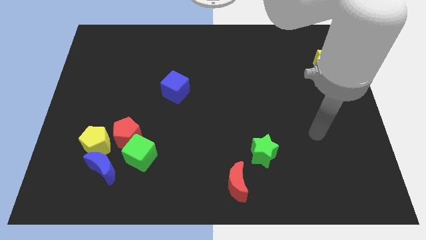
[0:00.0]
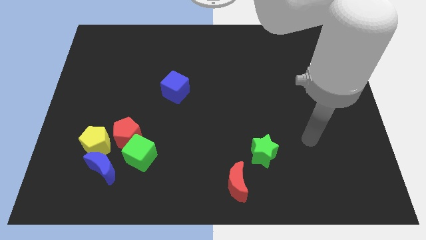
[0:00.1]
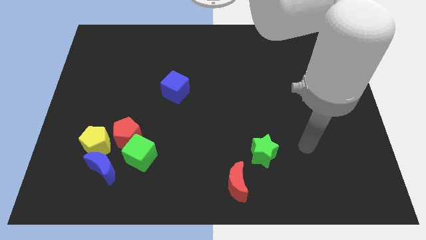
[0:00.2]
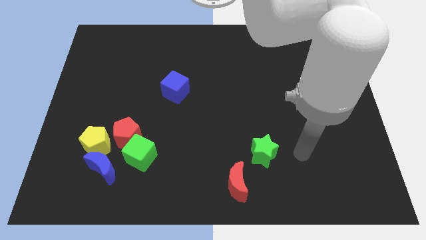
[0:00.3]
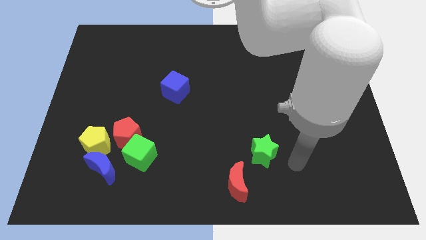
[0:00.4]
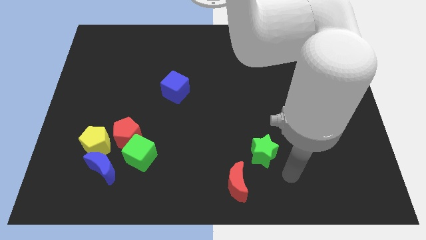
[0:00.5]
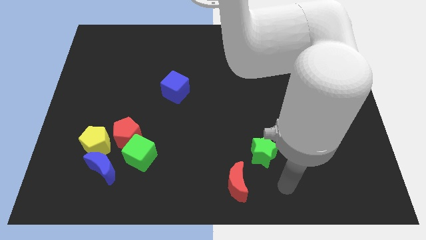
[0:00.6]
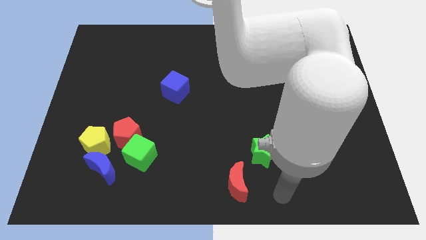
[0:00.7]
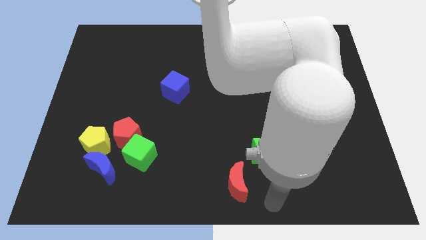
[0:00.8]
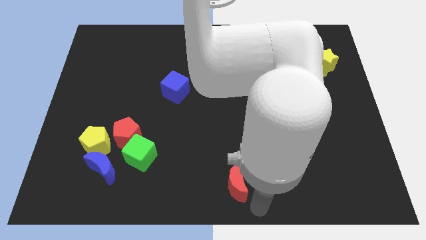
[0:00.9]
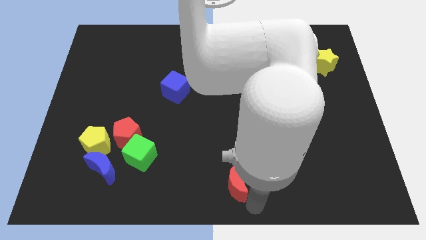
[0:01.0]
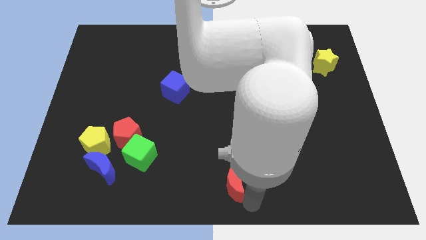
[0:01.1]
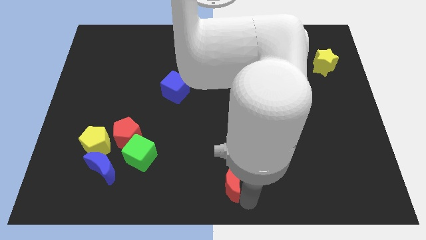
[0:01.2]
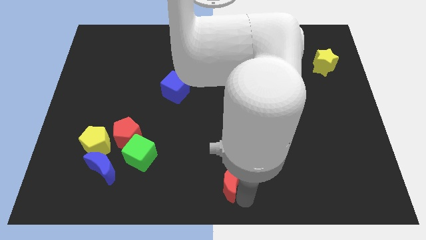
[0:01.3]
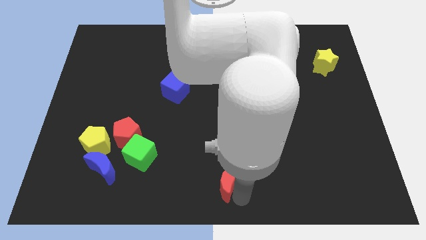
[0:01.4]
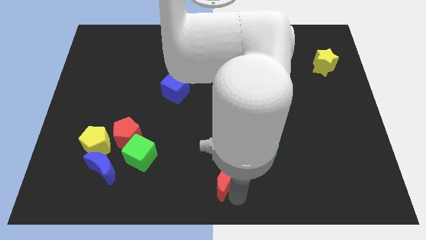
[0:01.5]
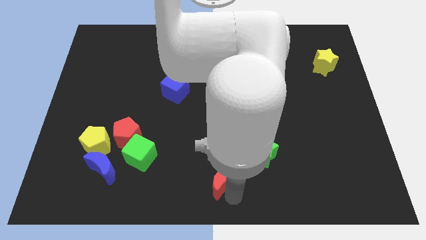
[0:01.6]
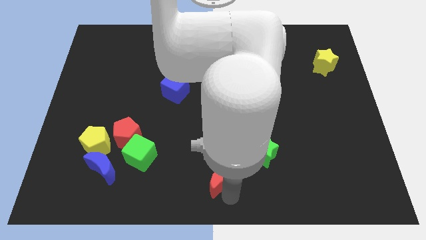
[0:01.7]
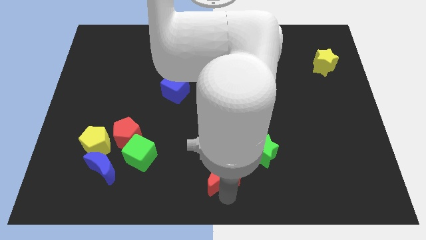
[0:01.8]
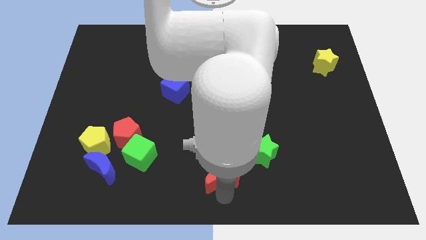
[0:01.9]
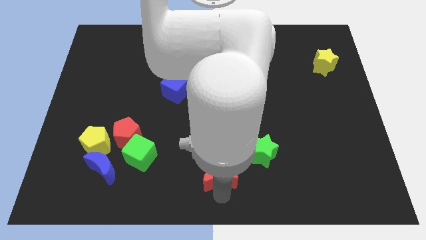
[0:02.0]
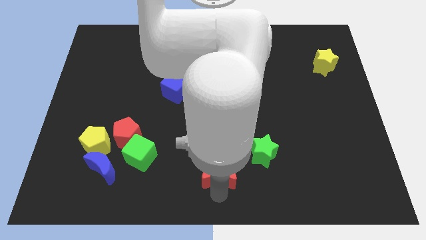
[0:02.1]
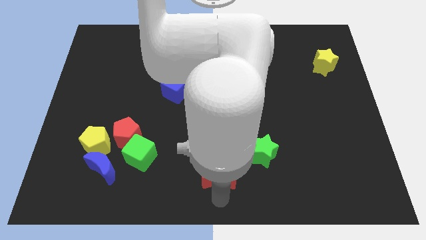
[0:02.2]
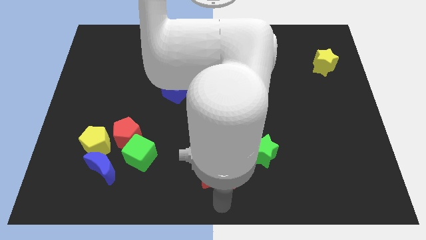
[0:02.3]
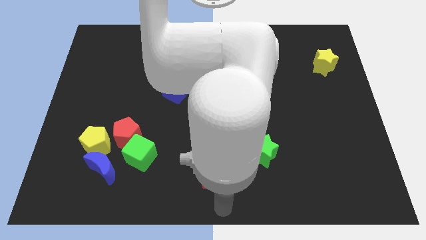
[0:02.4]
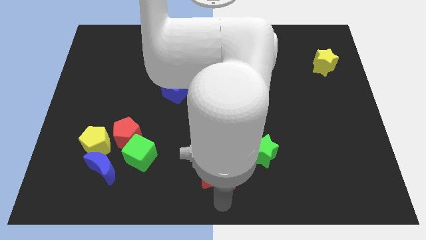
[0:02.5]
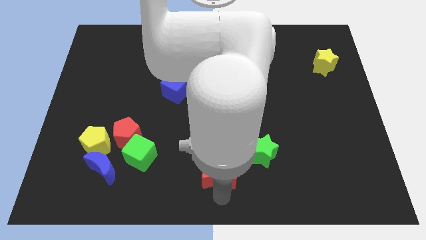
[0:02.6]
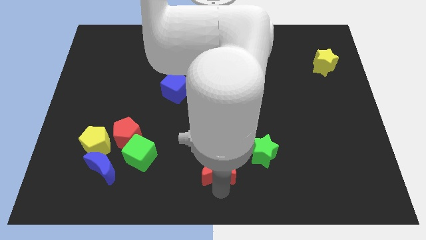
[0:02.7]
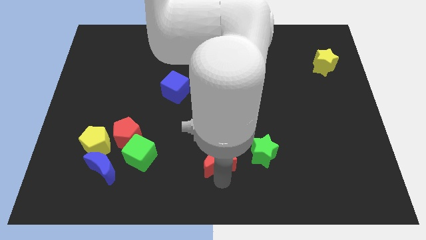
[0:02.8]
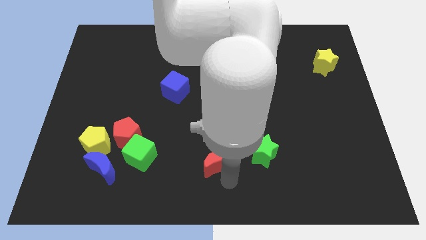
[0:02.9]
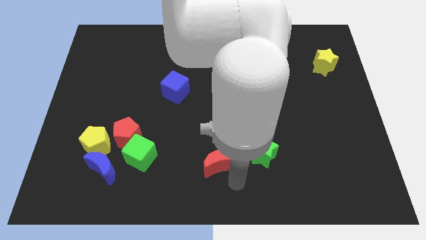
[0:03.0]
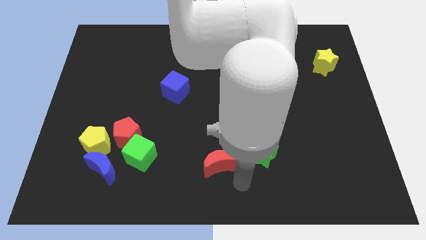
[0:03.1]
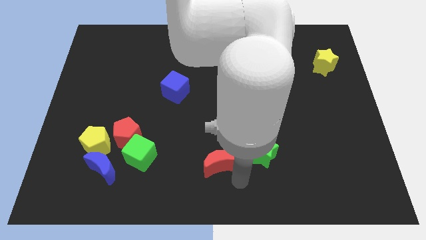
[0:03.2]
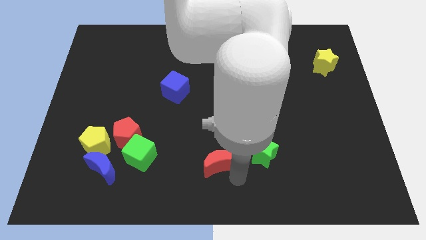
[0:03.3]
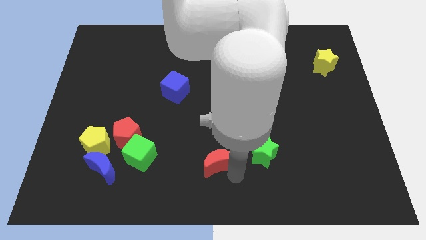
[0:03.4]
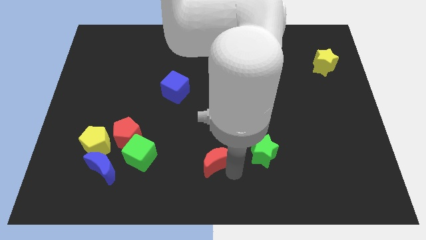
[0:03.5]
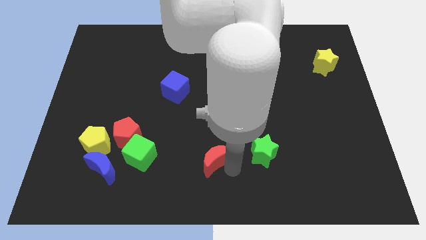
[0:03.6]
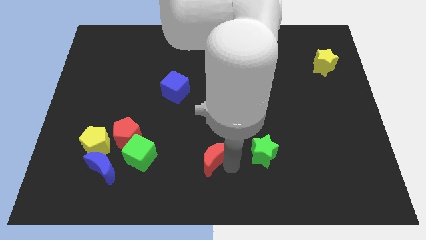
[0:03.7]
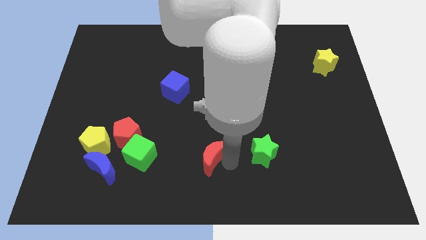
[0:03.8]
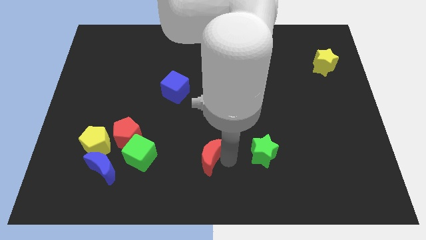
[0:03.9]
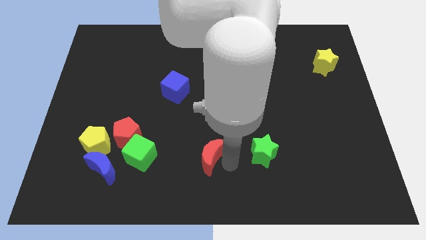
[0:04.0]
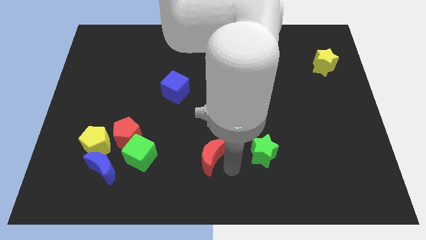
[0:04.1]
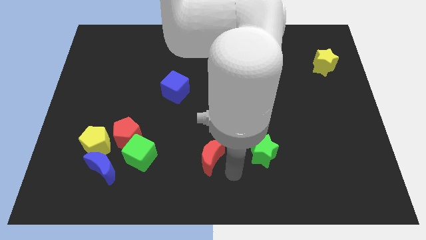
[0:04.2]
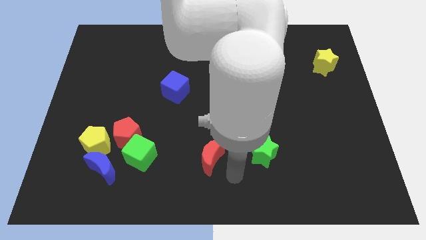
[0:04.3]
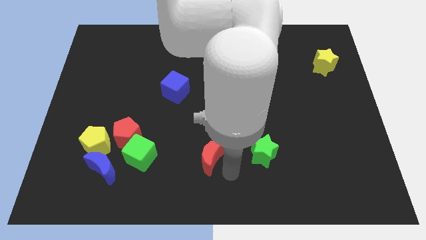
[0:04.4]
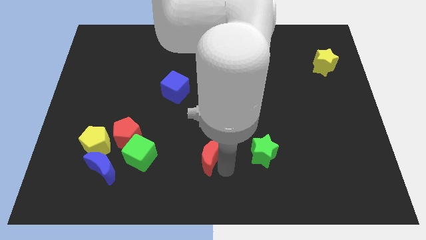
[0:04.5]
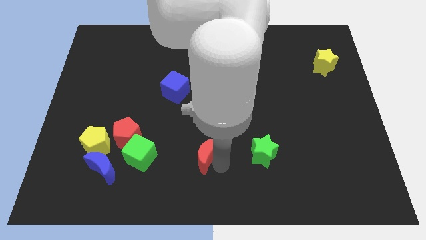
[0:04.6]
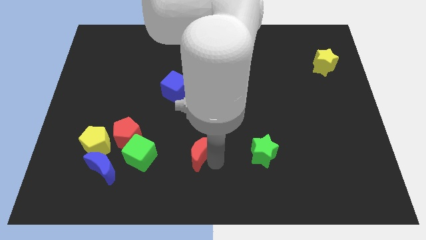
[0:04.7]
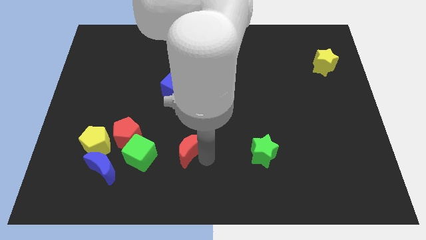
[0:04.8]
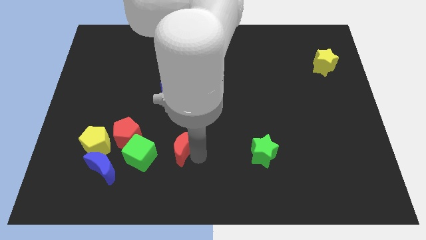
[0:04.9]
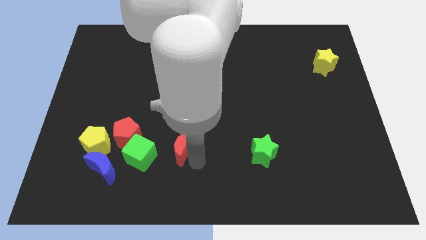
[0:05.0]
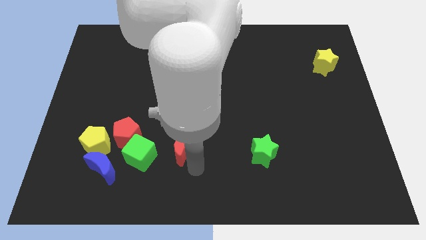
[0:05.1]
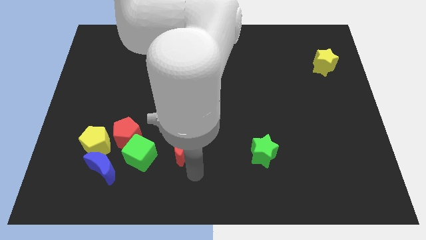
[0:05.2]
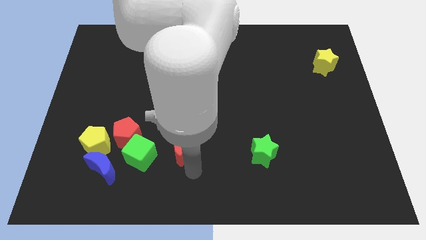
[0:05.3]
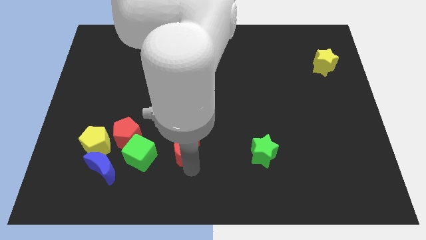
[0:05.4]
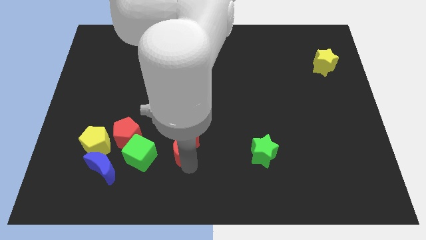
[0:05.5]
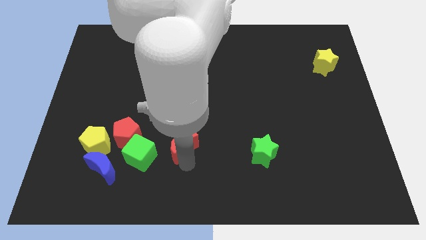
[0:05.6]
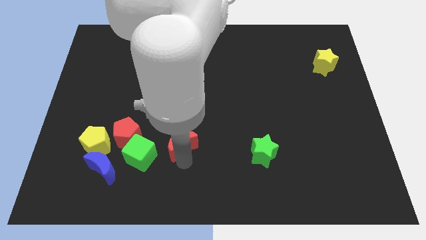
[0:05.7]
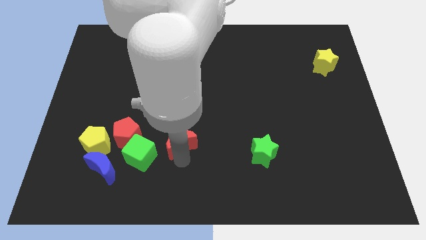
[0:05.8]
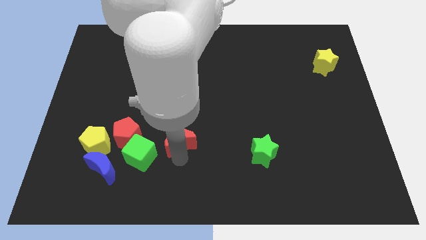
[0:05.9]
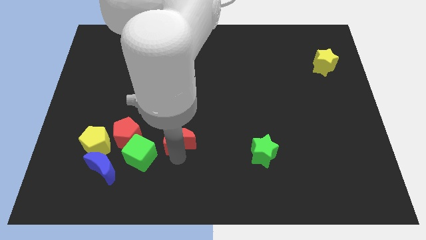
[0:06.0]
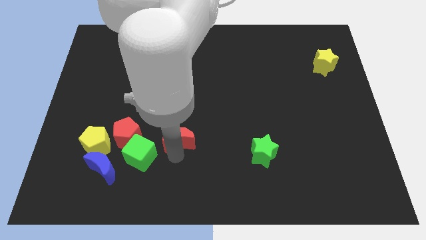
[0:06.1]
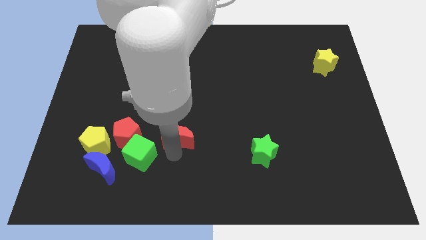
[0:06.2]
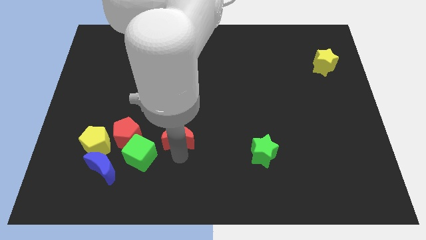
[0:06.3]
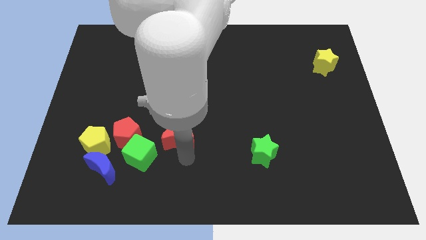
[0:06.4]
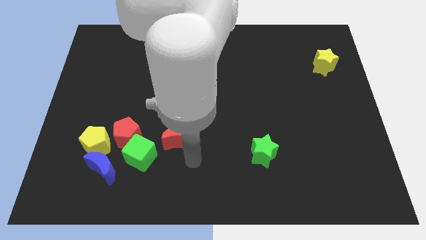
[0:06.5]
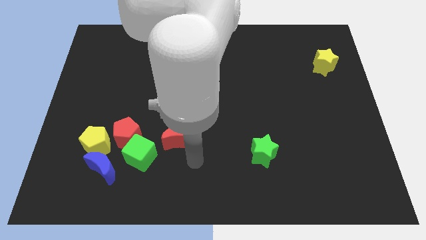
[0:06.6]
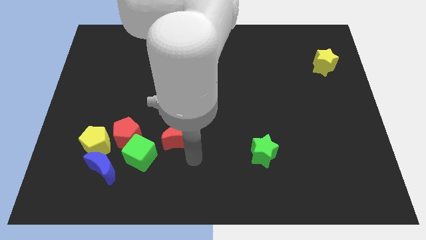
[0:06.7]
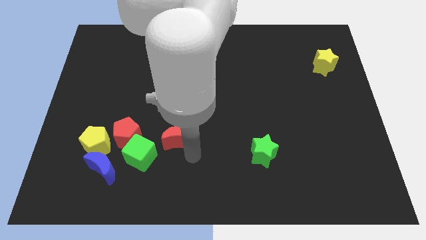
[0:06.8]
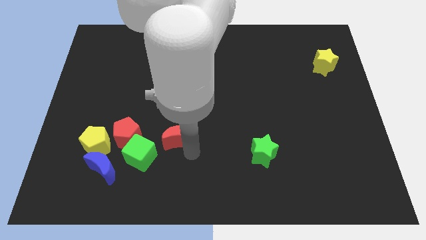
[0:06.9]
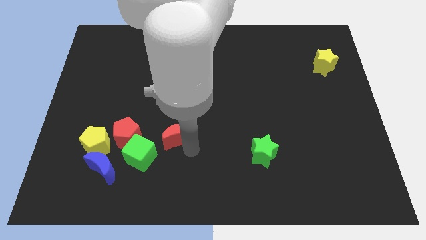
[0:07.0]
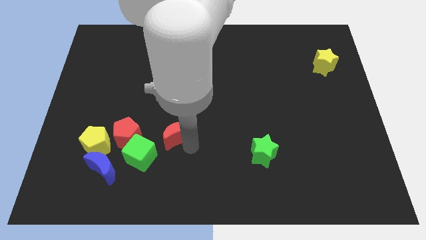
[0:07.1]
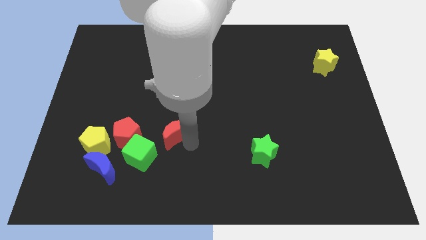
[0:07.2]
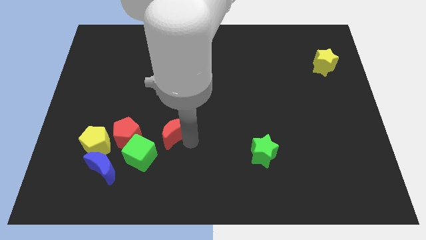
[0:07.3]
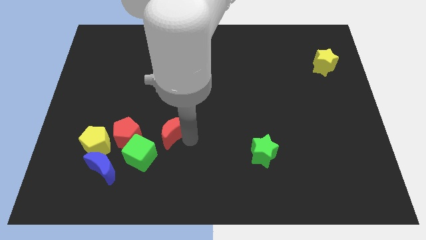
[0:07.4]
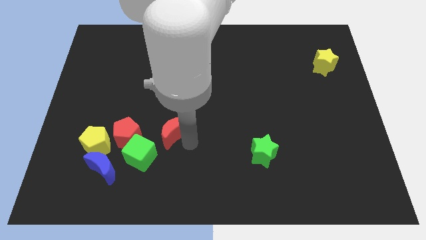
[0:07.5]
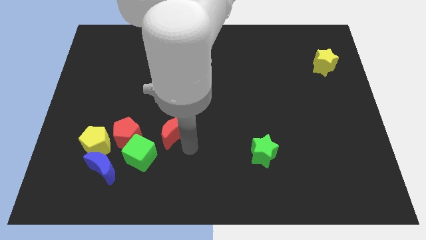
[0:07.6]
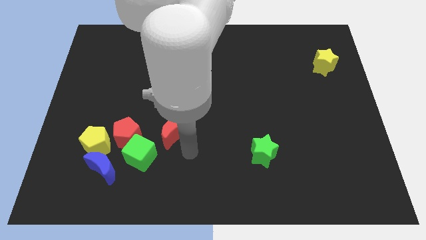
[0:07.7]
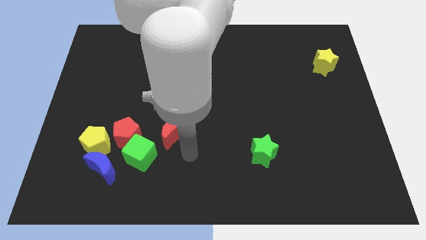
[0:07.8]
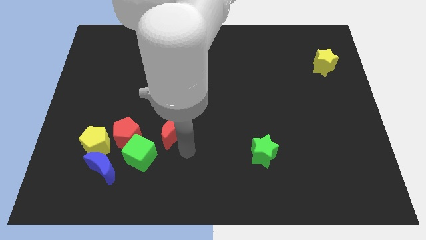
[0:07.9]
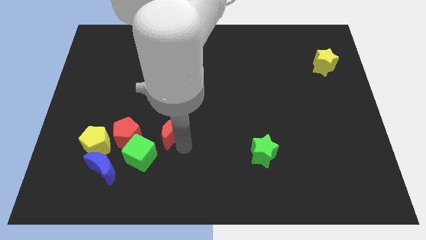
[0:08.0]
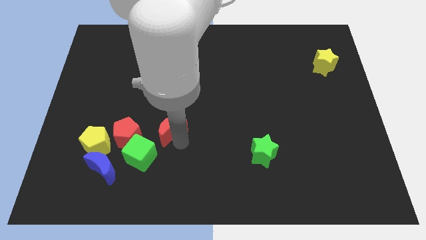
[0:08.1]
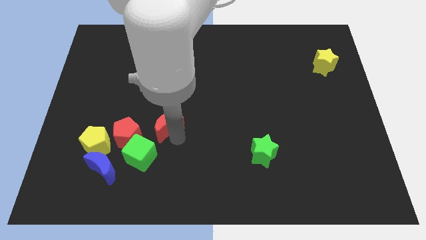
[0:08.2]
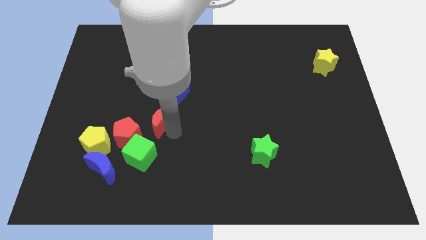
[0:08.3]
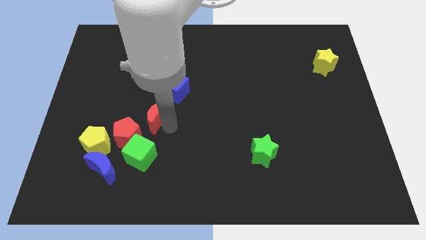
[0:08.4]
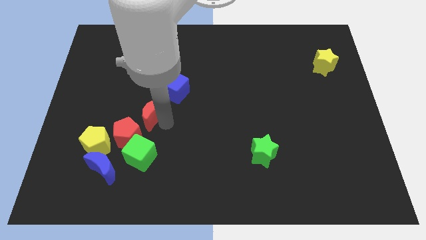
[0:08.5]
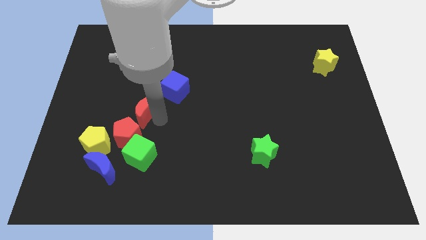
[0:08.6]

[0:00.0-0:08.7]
push the red moon to the top of the red pentagon
